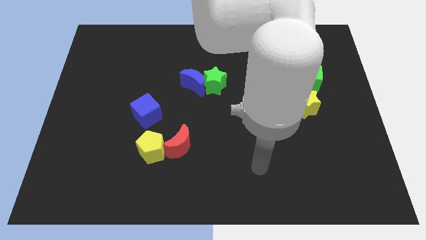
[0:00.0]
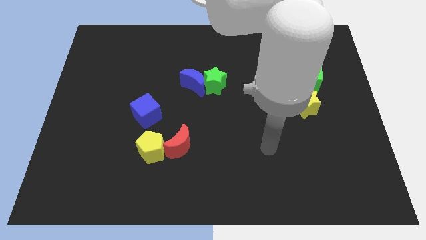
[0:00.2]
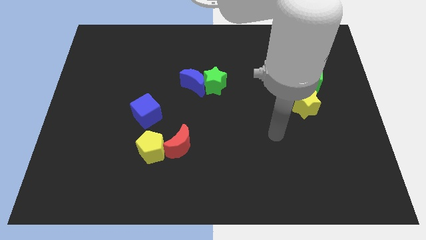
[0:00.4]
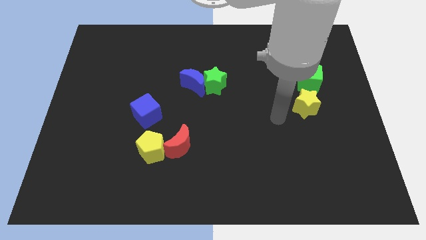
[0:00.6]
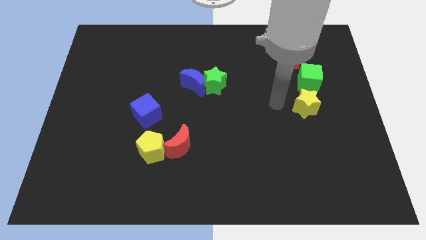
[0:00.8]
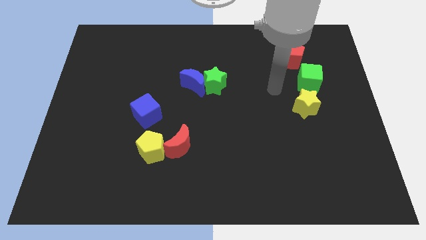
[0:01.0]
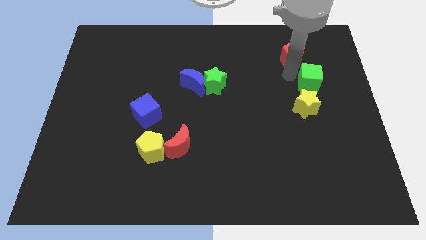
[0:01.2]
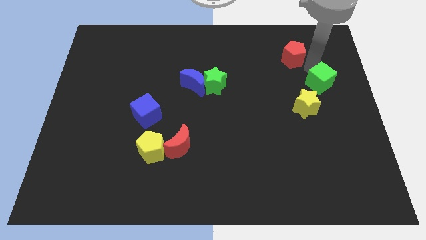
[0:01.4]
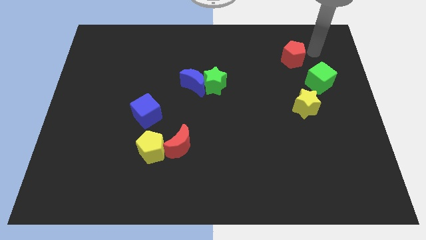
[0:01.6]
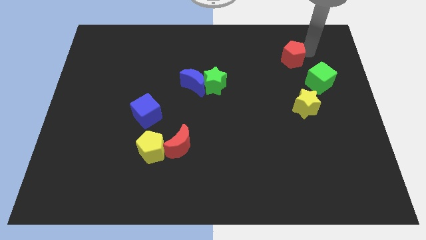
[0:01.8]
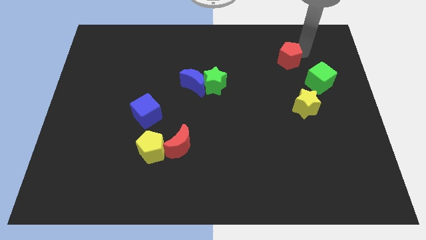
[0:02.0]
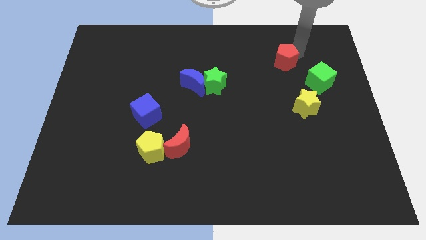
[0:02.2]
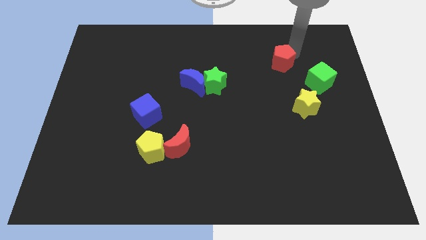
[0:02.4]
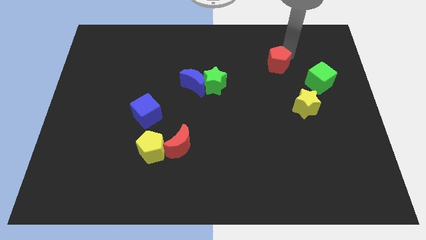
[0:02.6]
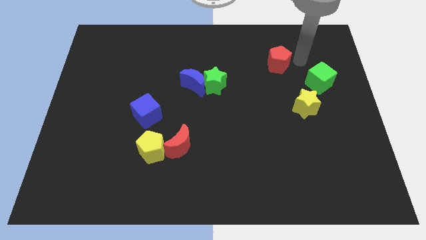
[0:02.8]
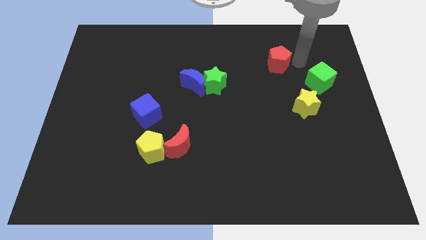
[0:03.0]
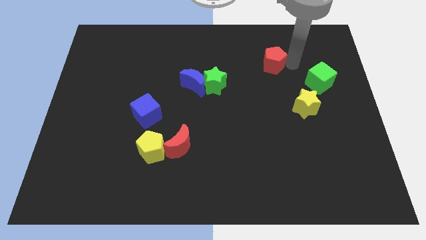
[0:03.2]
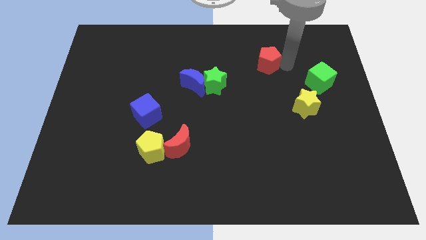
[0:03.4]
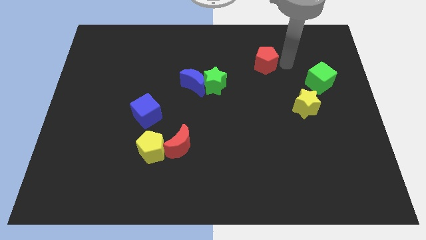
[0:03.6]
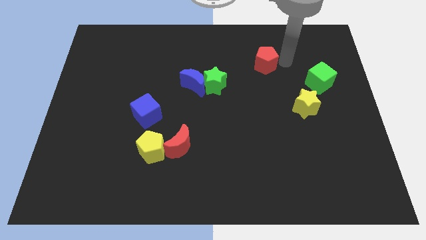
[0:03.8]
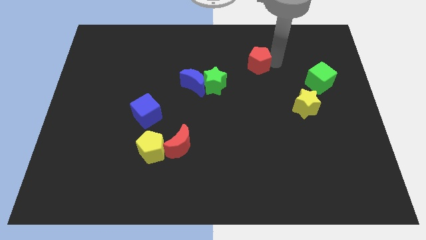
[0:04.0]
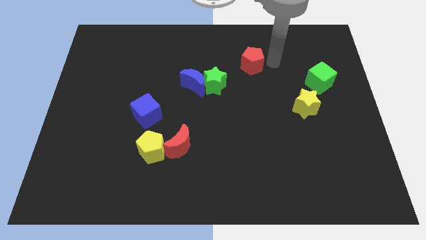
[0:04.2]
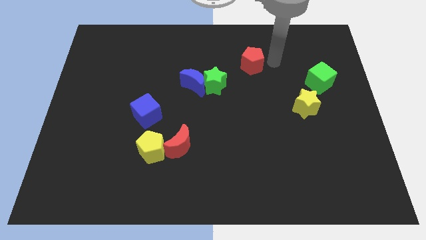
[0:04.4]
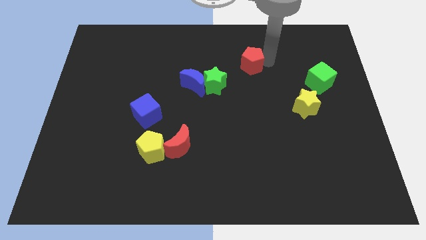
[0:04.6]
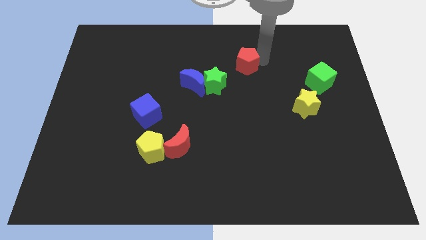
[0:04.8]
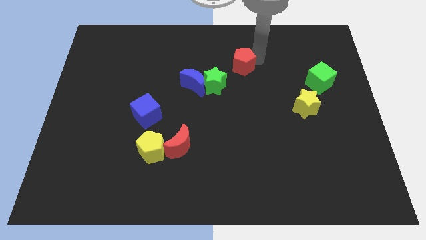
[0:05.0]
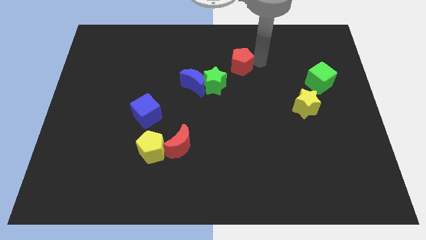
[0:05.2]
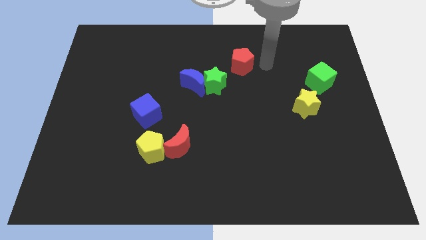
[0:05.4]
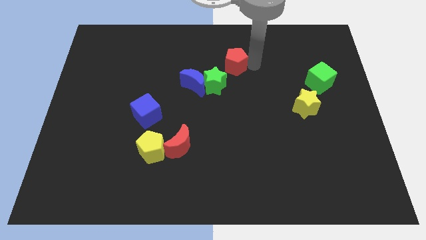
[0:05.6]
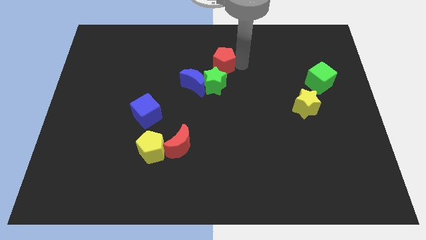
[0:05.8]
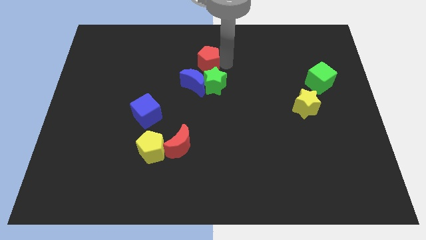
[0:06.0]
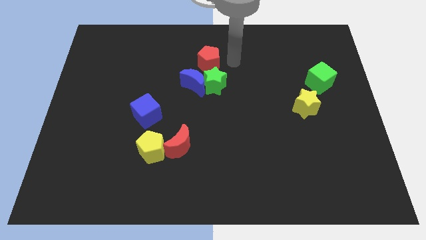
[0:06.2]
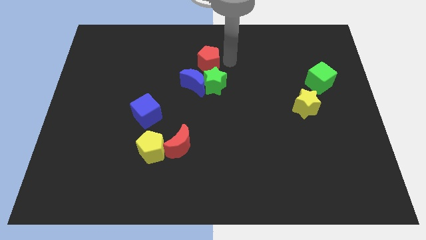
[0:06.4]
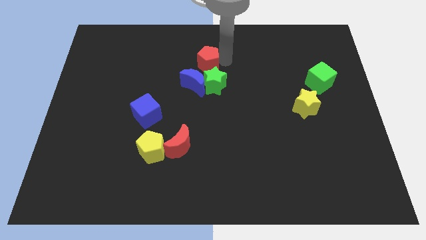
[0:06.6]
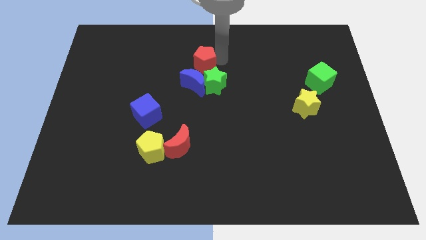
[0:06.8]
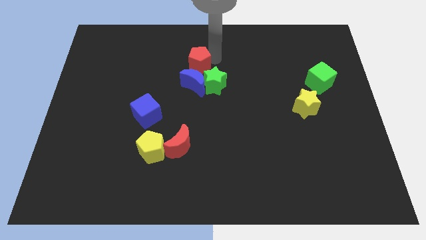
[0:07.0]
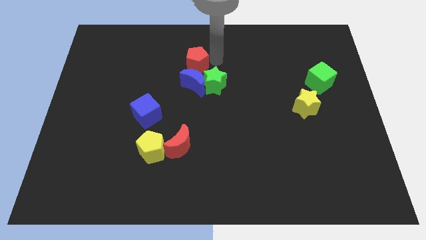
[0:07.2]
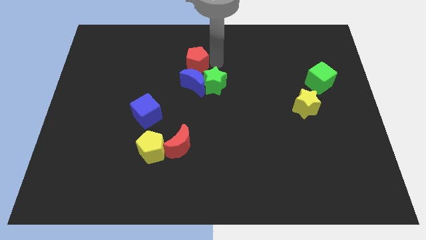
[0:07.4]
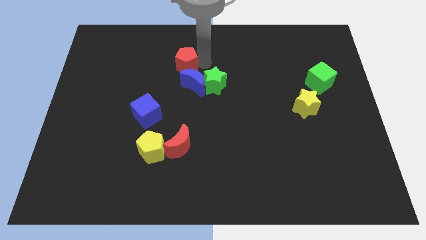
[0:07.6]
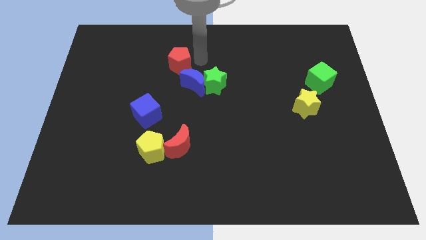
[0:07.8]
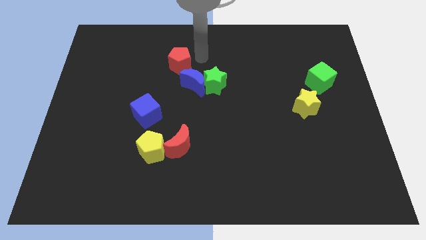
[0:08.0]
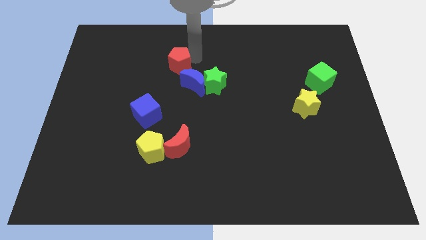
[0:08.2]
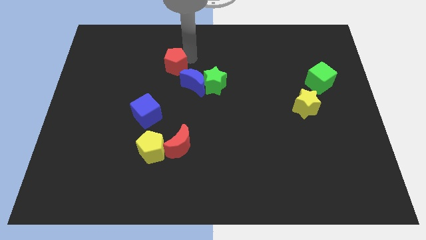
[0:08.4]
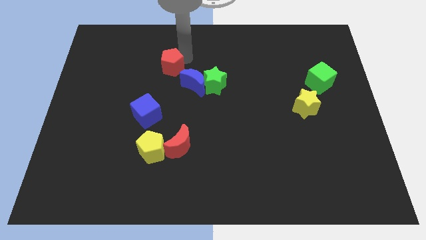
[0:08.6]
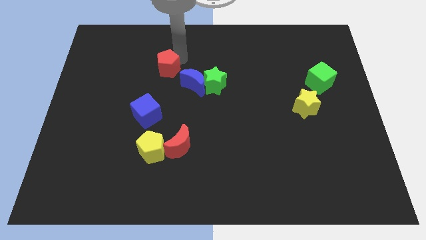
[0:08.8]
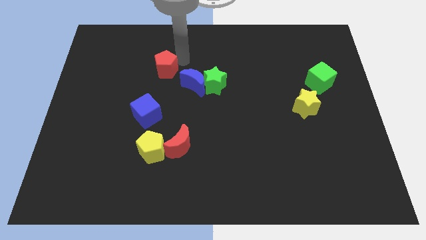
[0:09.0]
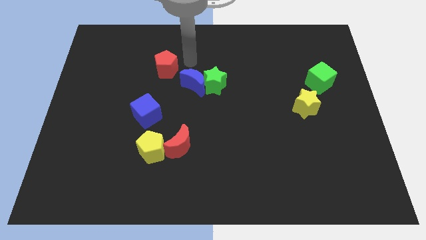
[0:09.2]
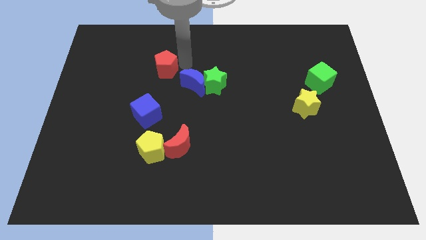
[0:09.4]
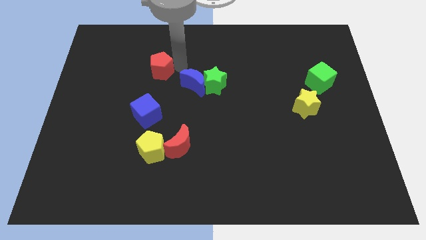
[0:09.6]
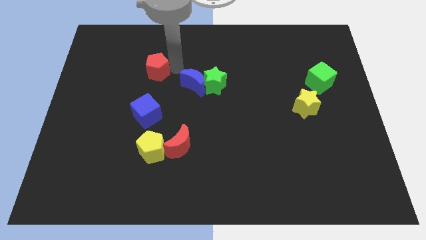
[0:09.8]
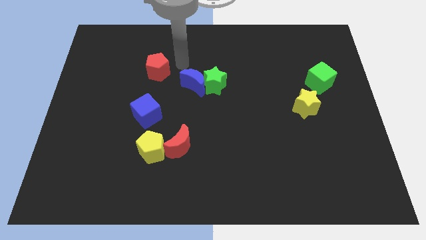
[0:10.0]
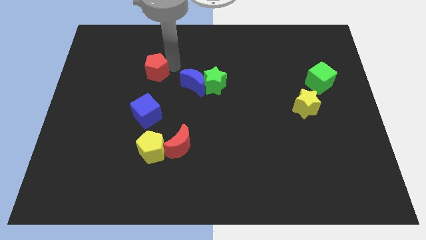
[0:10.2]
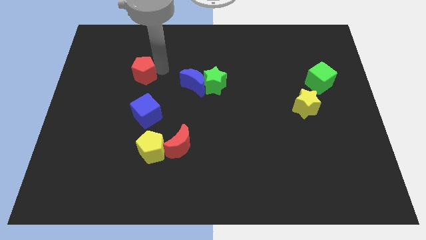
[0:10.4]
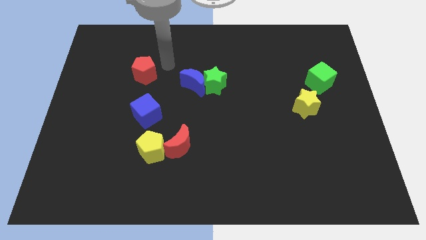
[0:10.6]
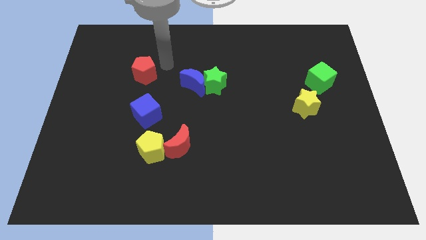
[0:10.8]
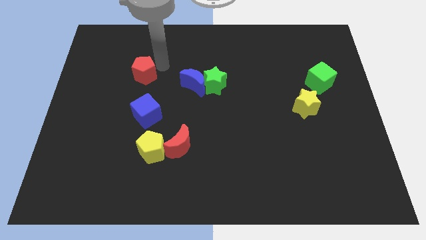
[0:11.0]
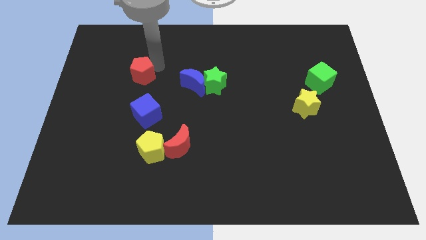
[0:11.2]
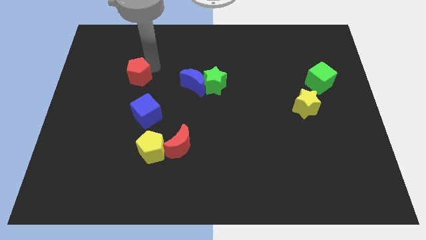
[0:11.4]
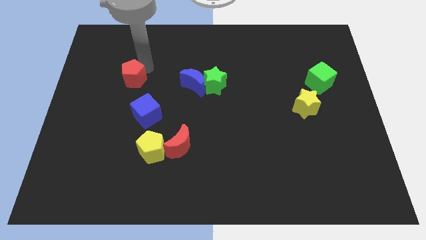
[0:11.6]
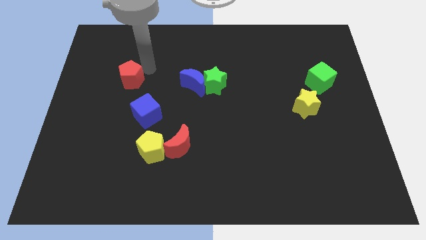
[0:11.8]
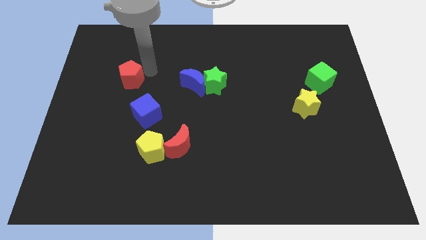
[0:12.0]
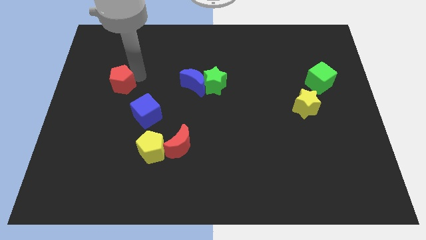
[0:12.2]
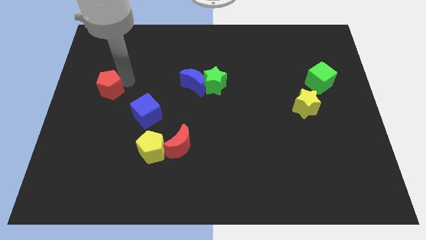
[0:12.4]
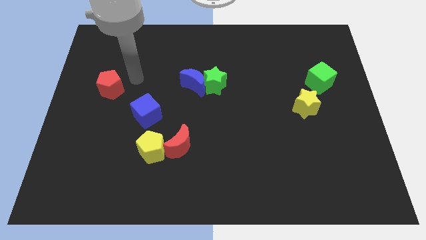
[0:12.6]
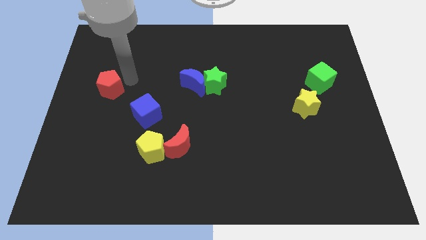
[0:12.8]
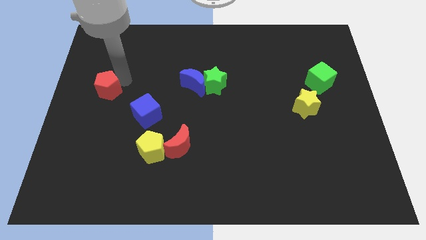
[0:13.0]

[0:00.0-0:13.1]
slide the red pentagon to the center left
